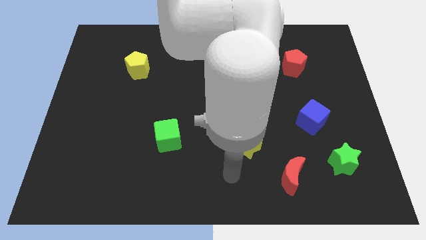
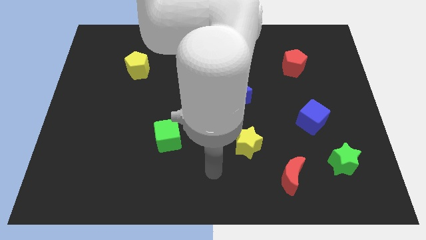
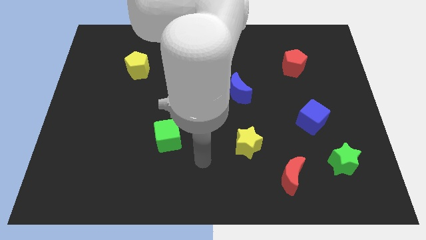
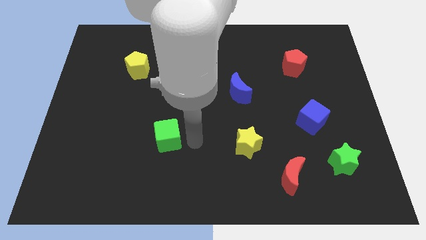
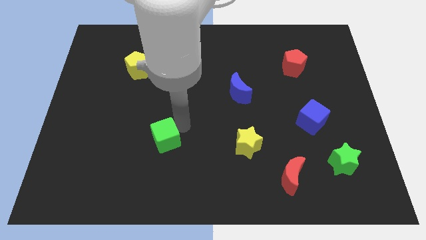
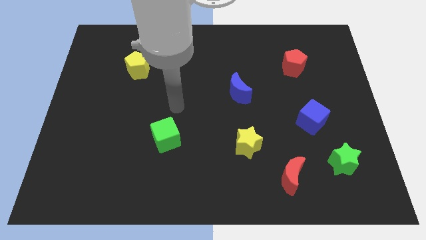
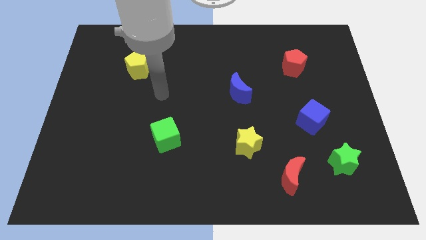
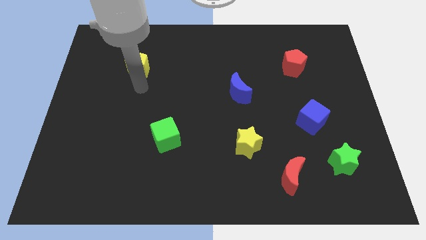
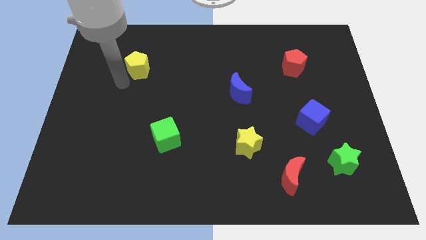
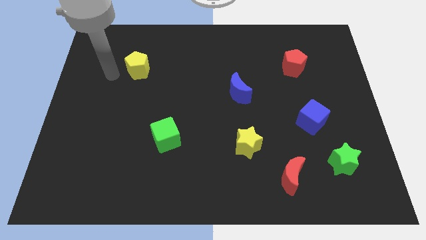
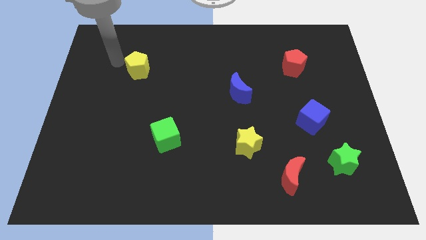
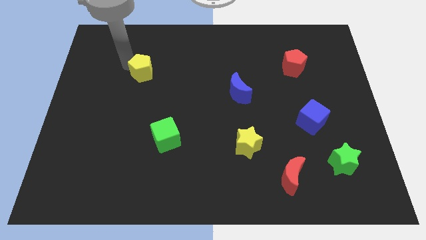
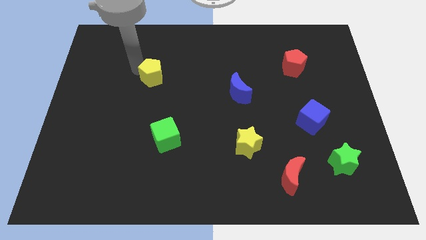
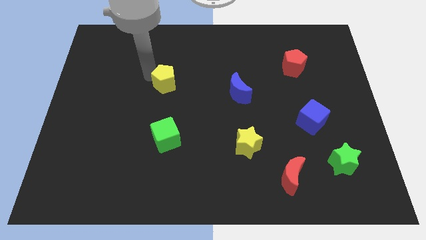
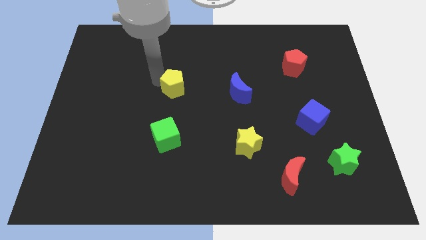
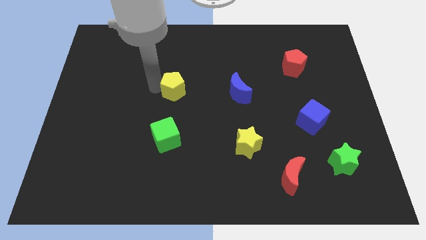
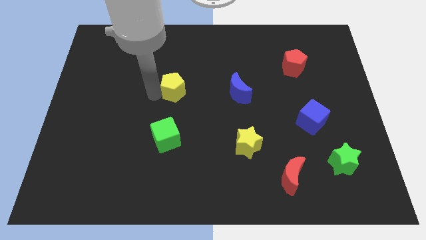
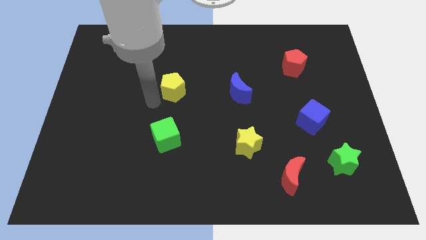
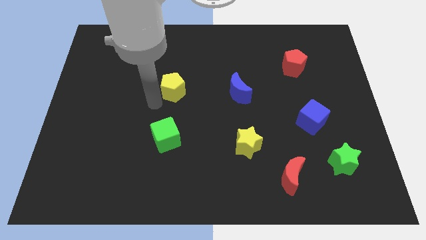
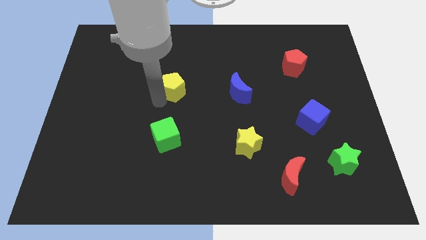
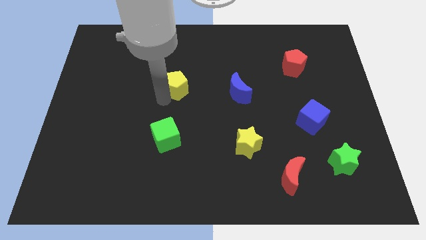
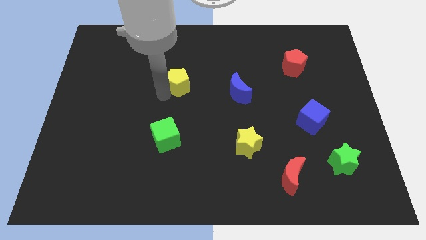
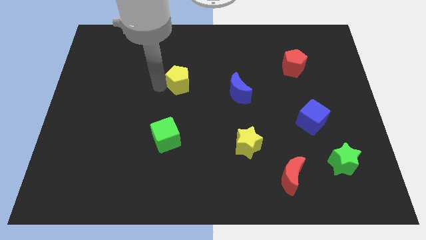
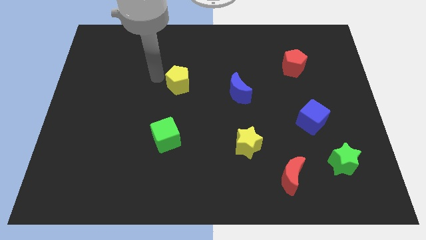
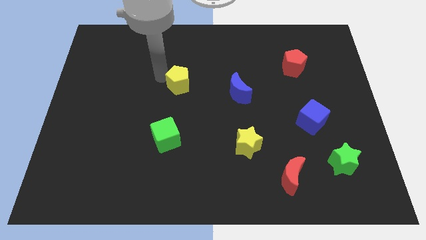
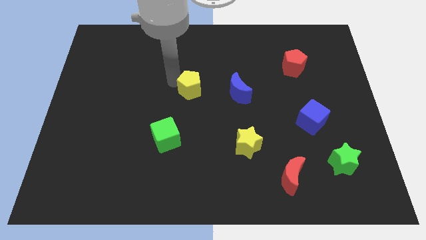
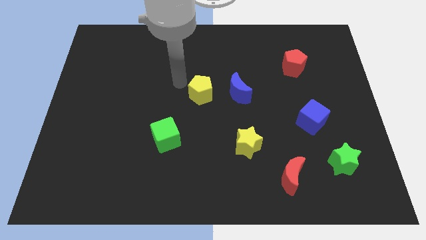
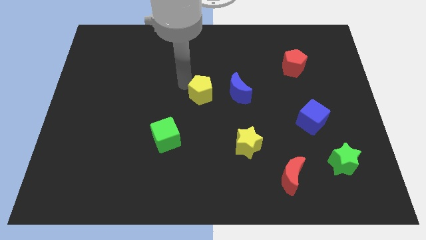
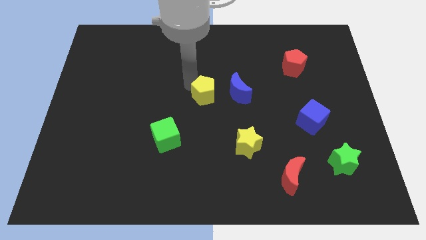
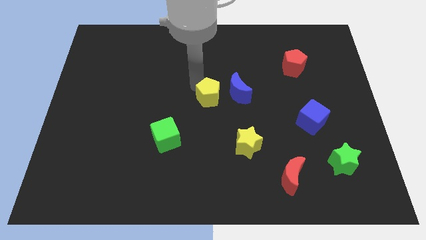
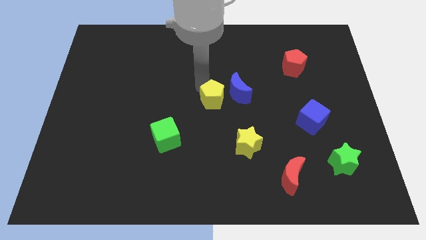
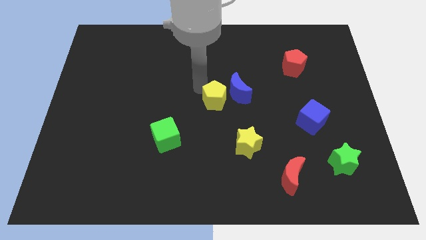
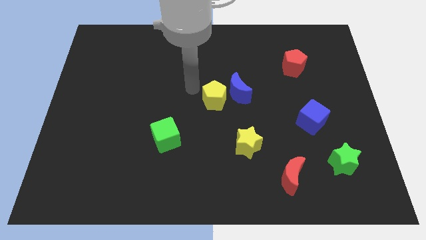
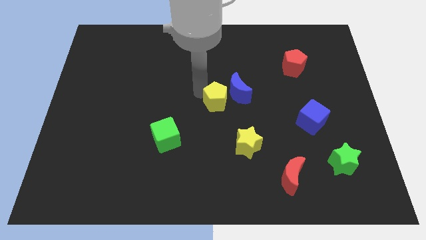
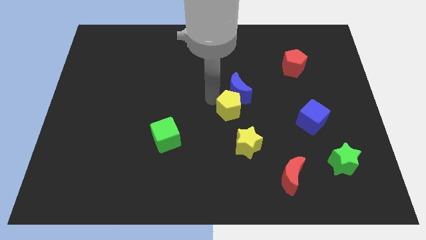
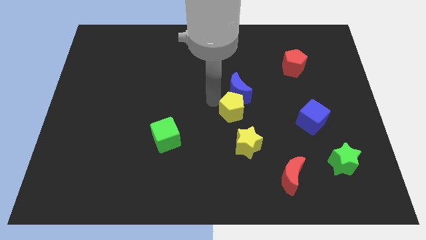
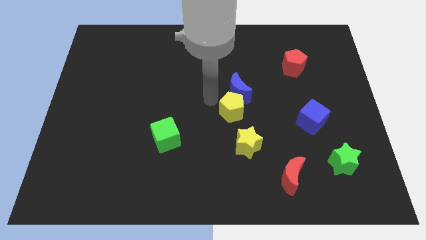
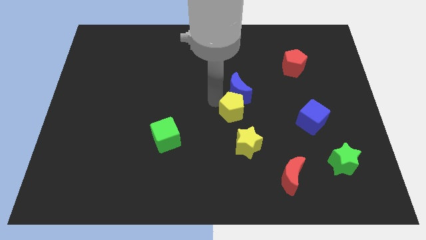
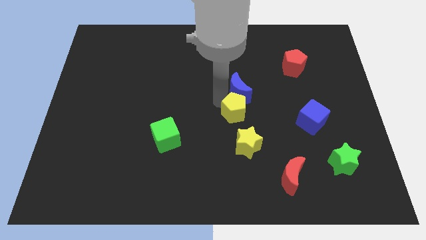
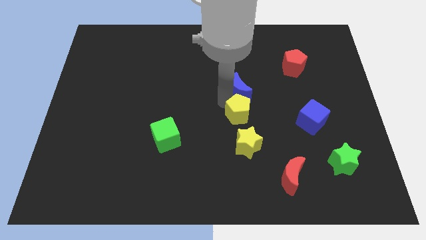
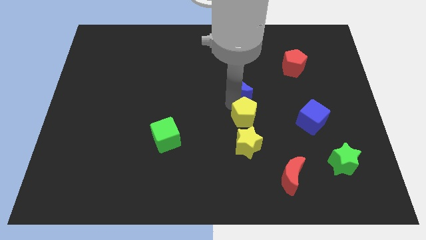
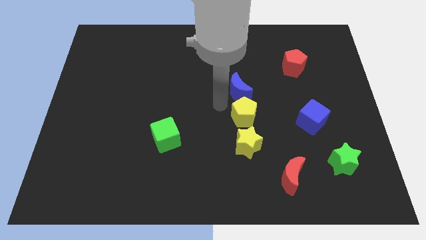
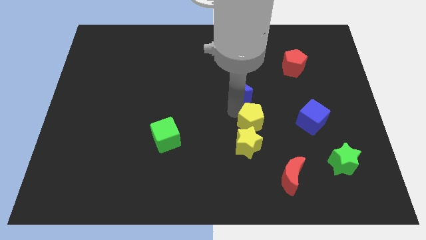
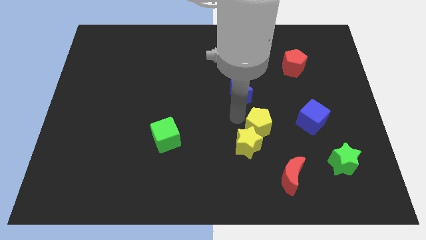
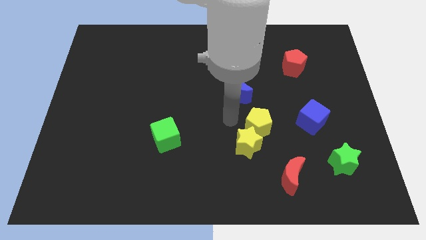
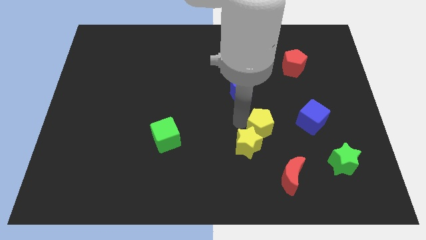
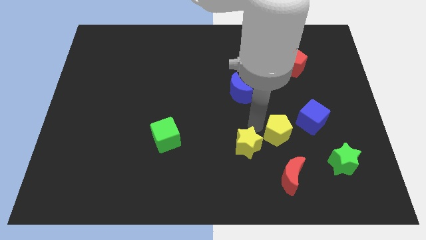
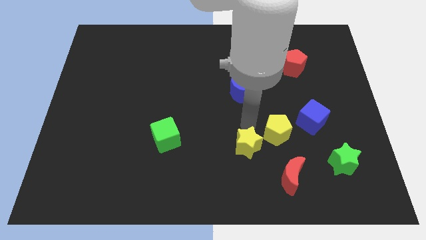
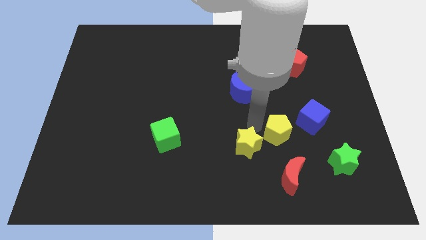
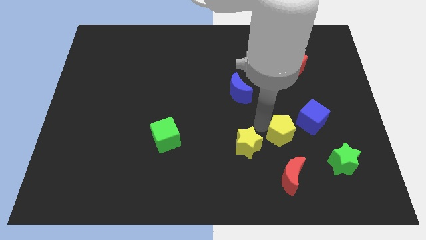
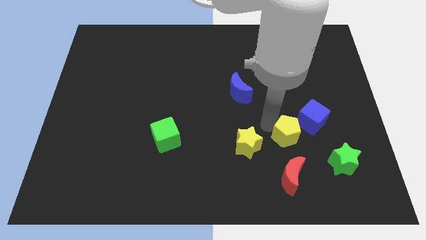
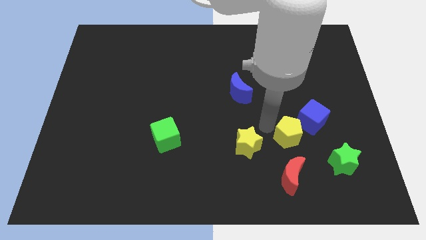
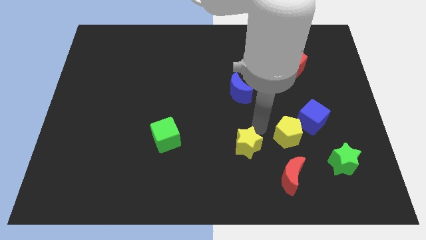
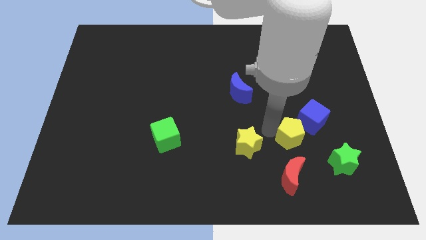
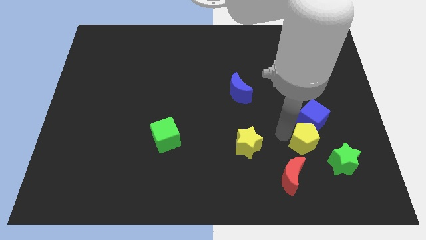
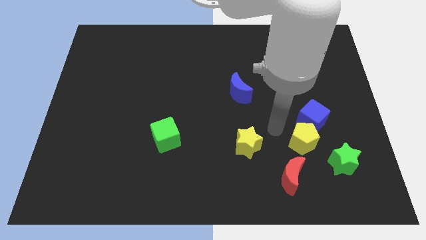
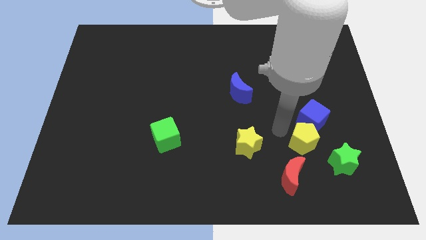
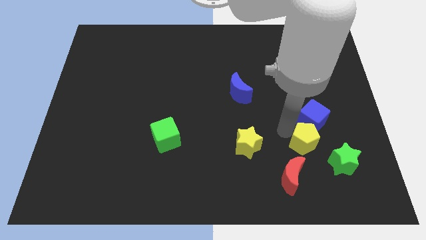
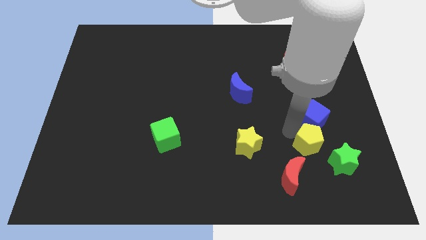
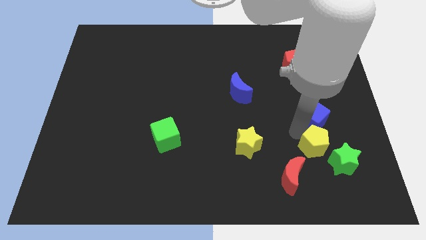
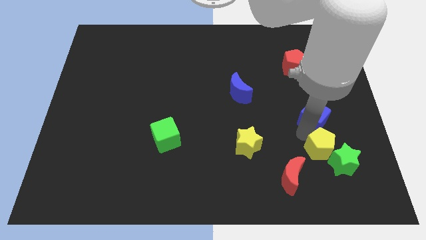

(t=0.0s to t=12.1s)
move the yellow pentagon next to the green star

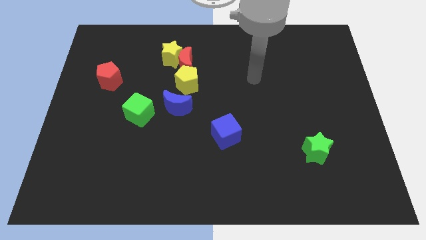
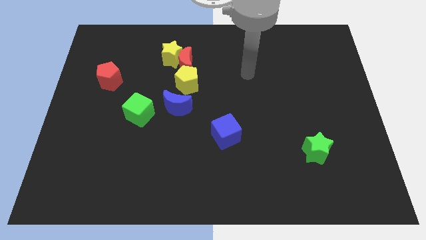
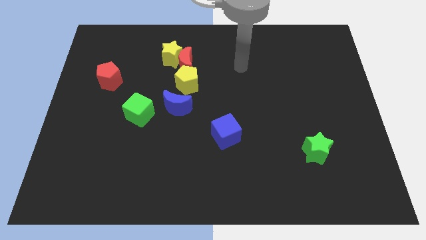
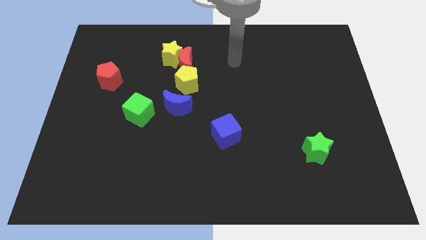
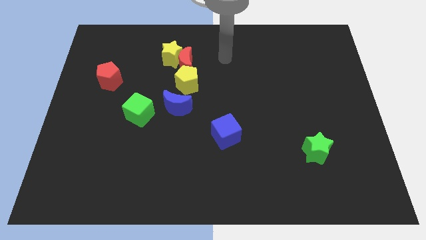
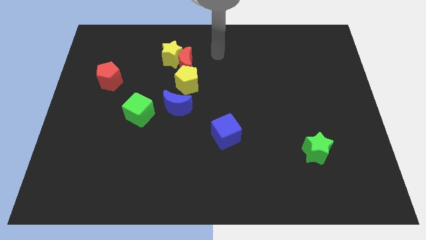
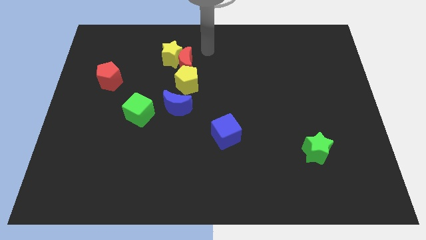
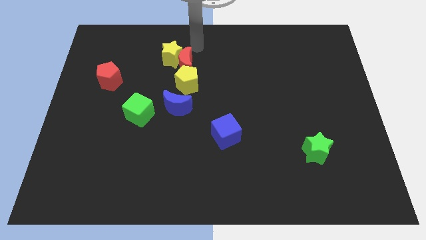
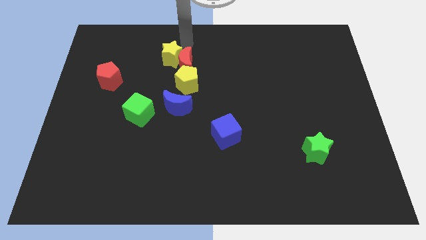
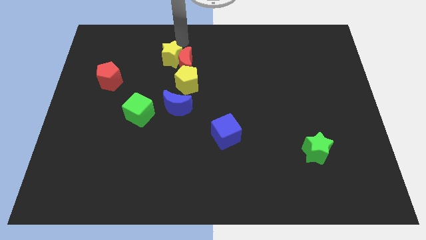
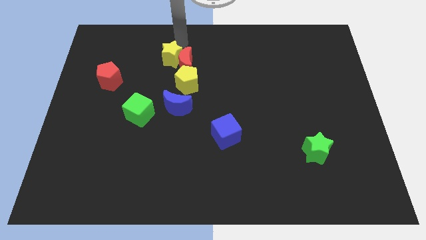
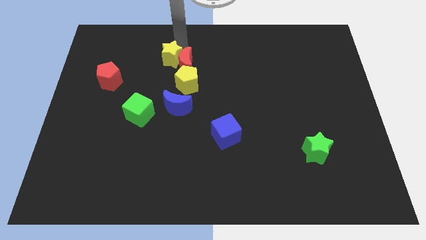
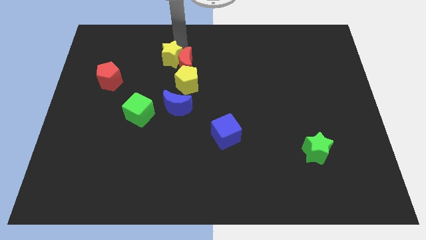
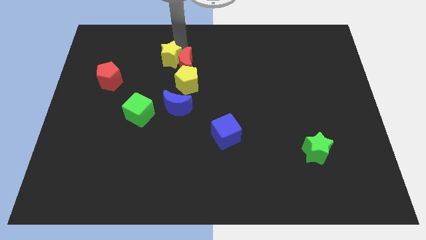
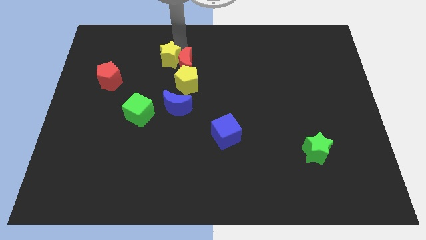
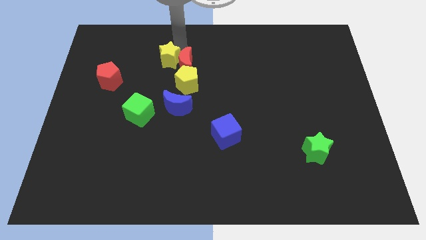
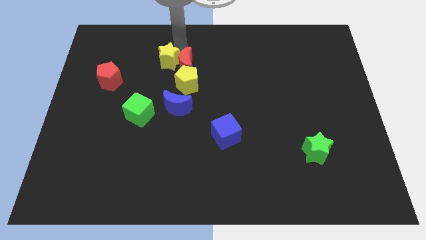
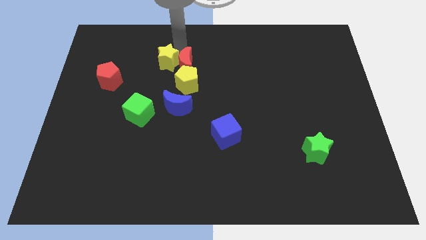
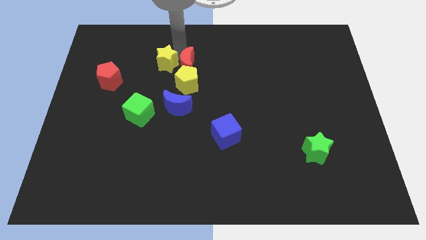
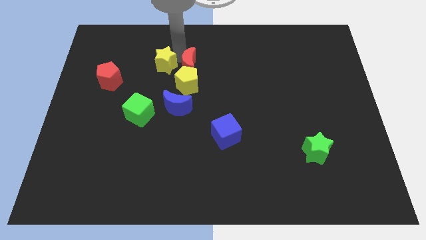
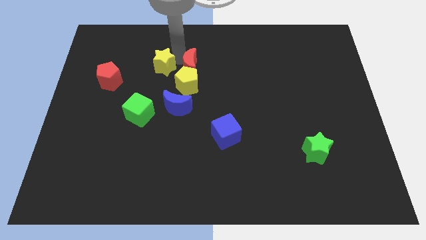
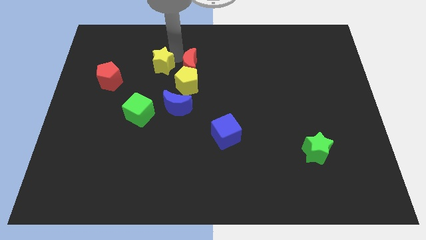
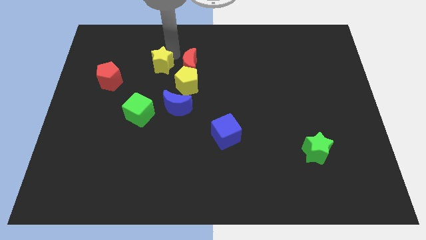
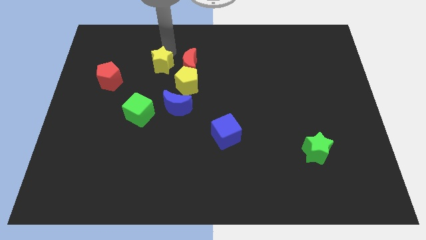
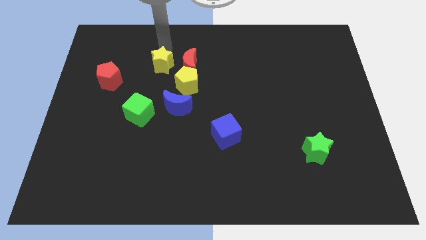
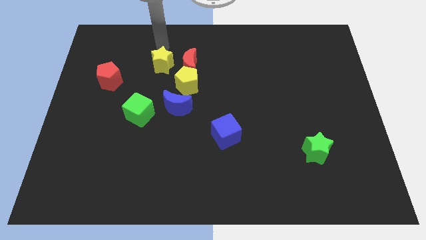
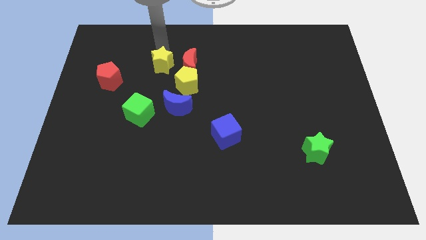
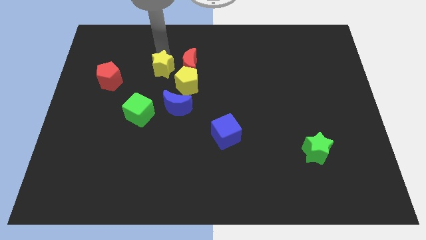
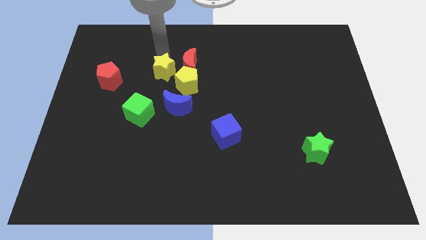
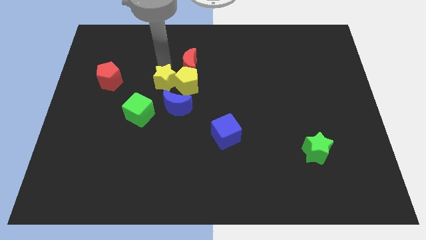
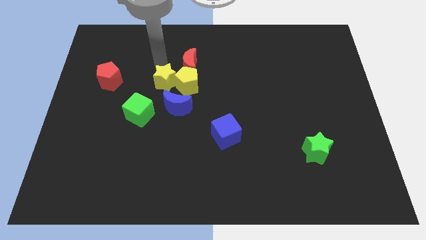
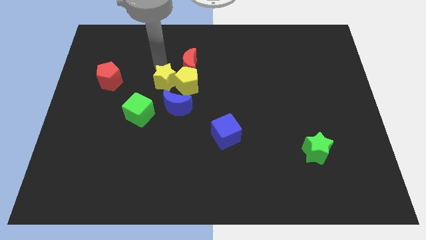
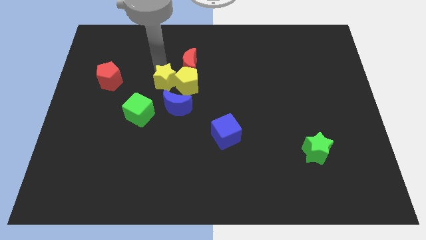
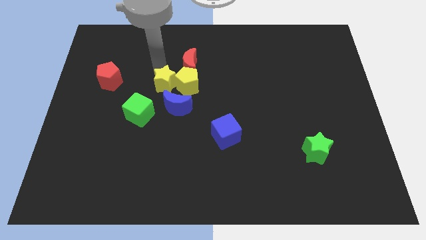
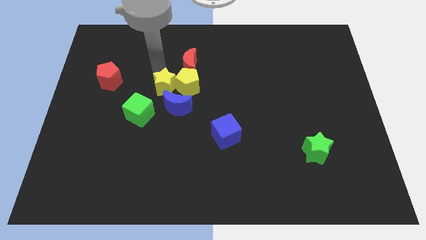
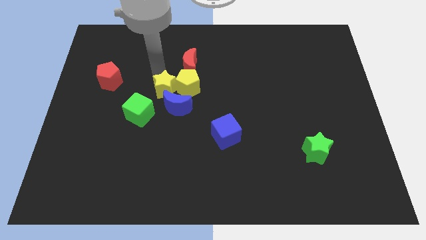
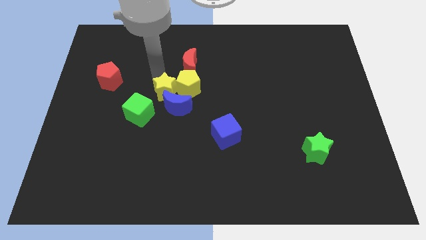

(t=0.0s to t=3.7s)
push the yellow star towards the blue moon
